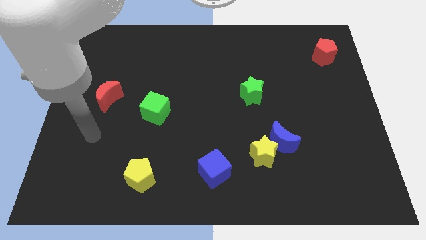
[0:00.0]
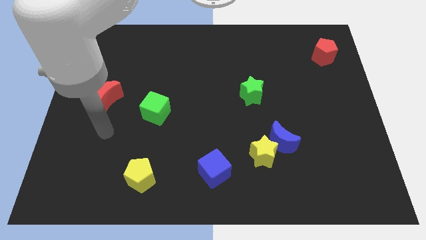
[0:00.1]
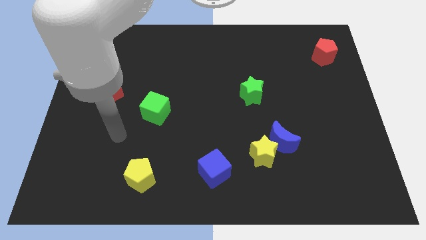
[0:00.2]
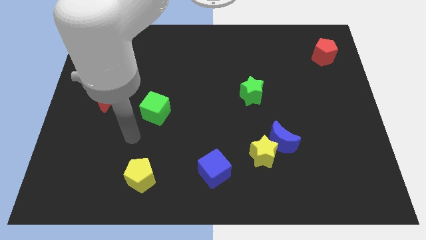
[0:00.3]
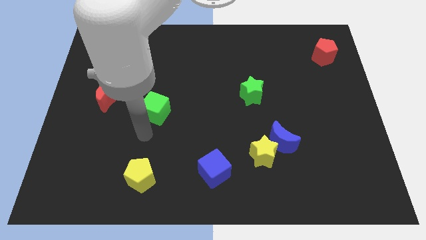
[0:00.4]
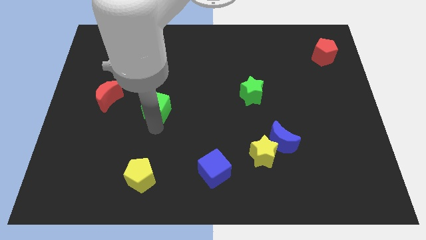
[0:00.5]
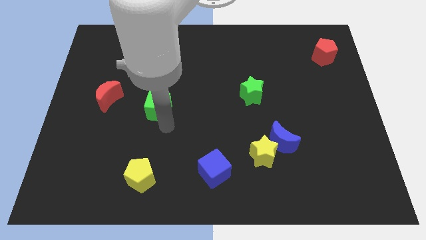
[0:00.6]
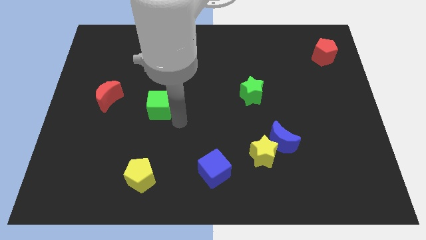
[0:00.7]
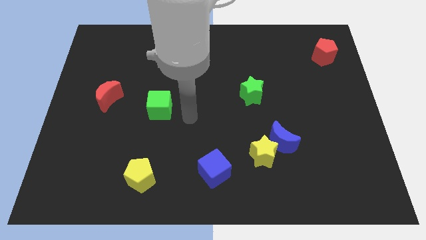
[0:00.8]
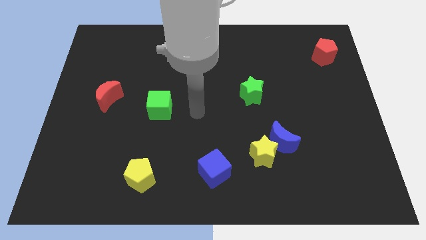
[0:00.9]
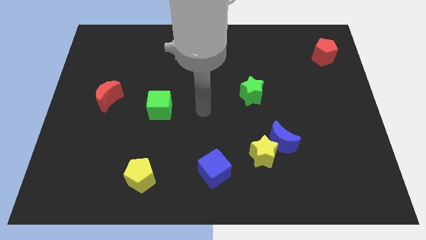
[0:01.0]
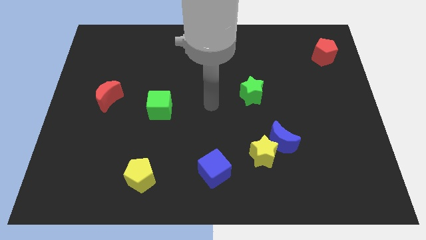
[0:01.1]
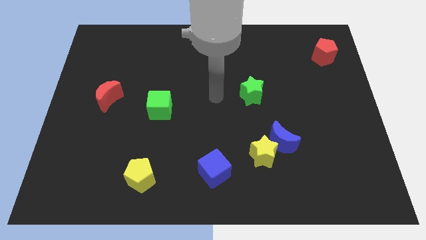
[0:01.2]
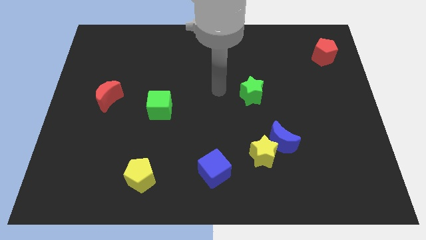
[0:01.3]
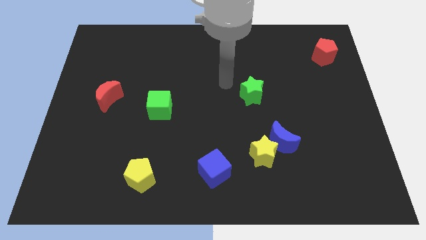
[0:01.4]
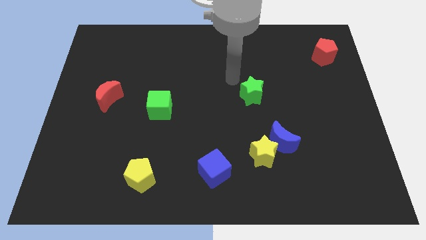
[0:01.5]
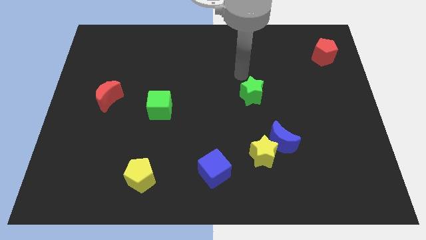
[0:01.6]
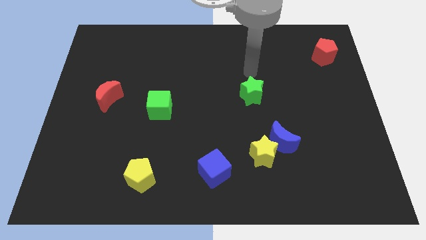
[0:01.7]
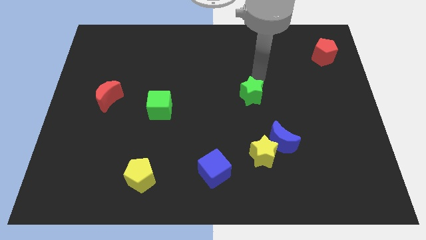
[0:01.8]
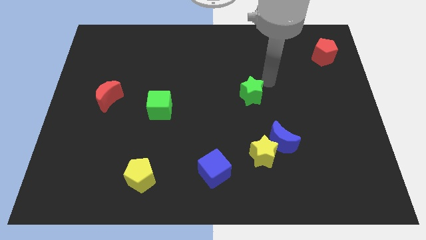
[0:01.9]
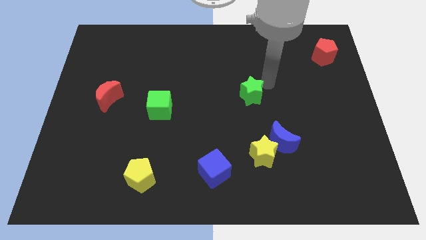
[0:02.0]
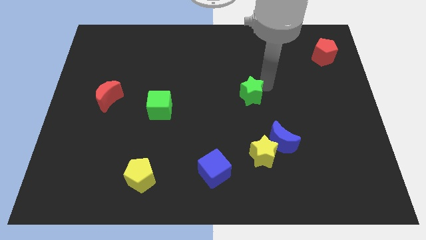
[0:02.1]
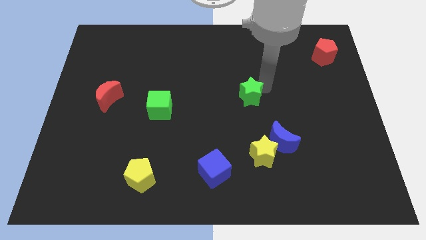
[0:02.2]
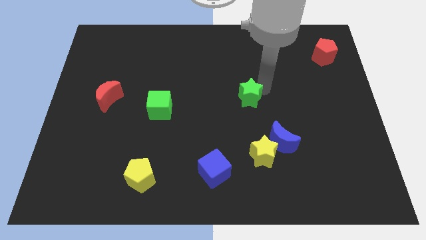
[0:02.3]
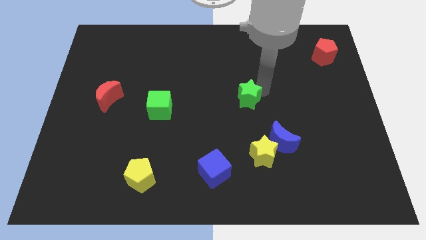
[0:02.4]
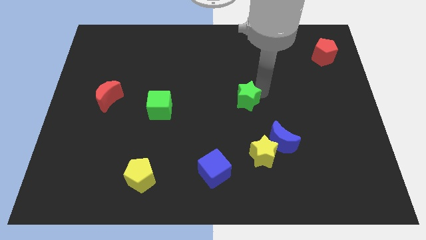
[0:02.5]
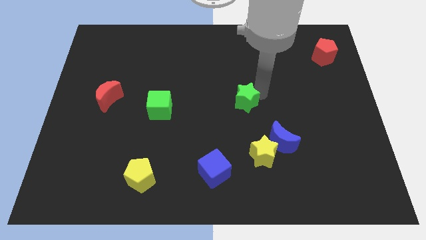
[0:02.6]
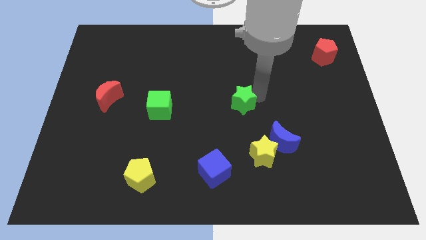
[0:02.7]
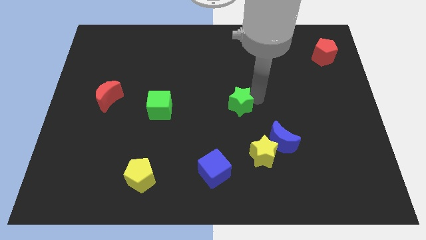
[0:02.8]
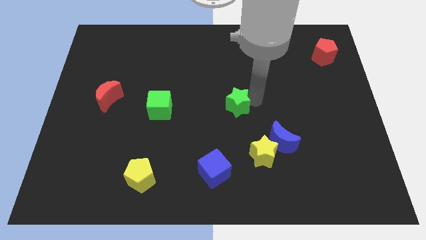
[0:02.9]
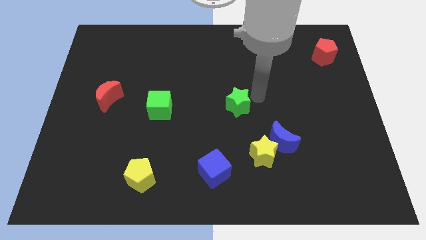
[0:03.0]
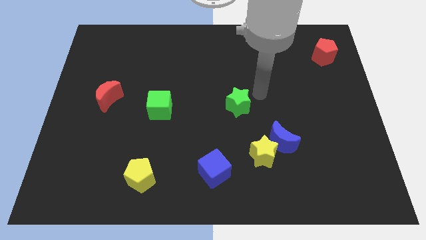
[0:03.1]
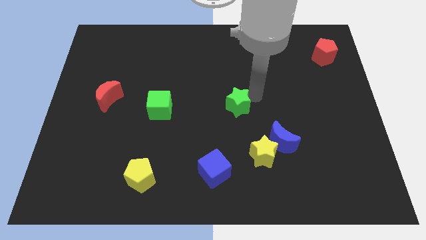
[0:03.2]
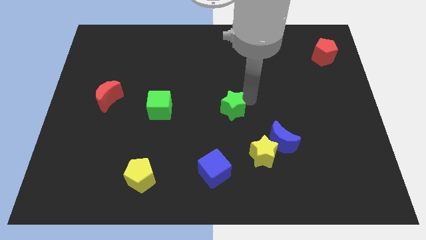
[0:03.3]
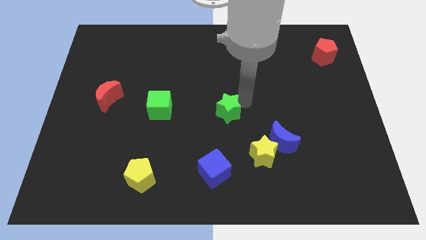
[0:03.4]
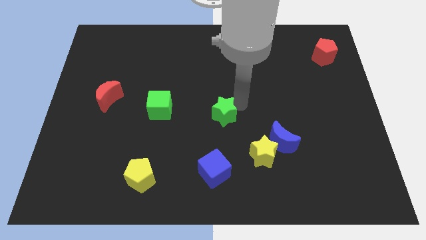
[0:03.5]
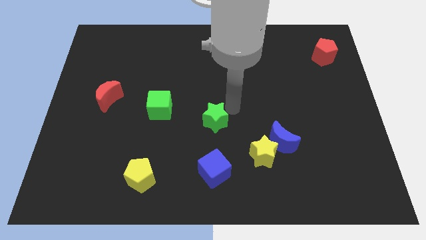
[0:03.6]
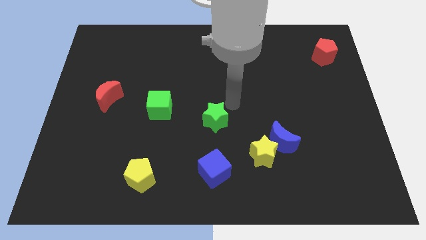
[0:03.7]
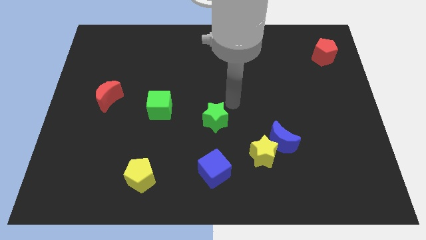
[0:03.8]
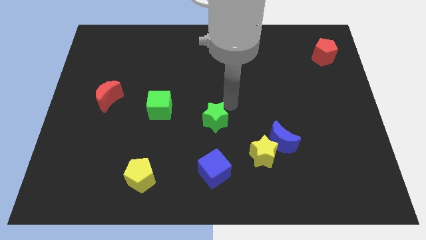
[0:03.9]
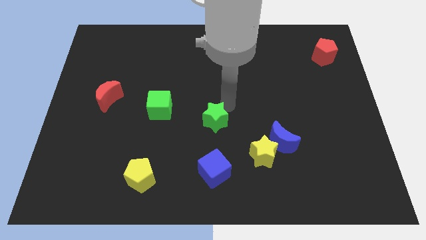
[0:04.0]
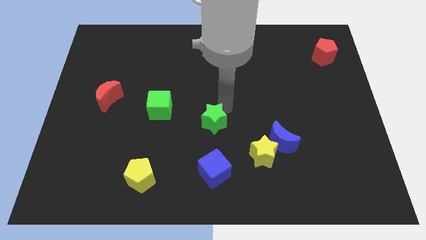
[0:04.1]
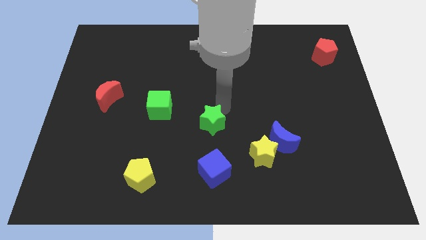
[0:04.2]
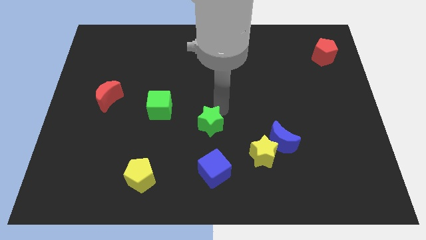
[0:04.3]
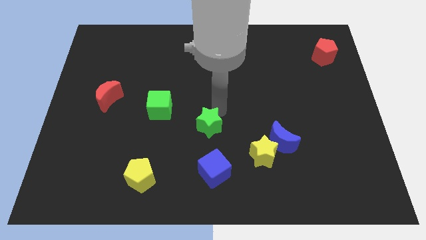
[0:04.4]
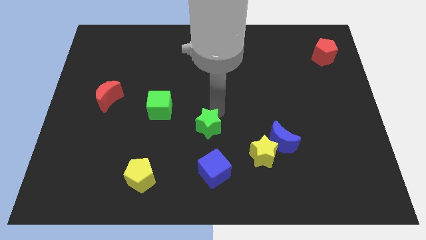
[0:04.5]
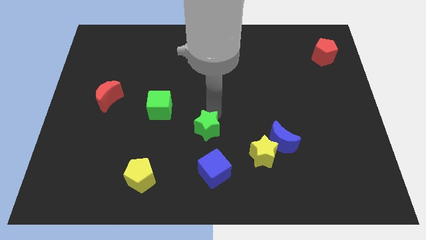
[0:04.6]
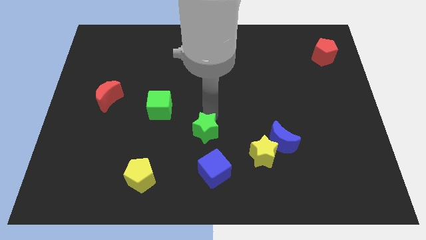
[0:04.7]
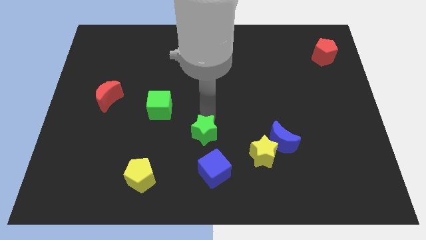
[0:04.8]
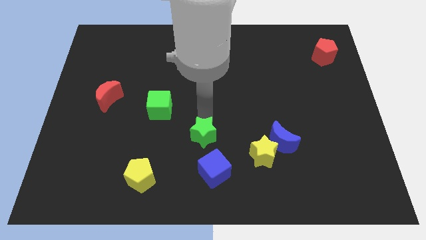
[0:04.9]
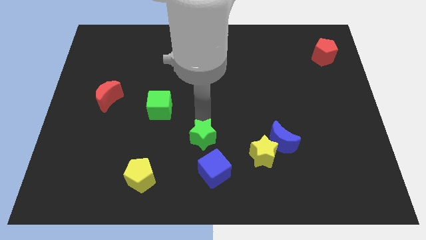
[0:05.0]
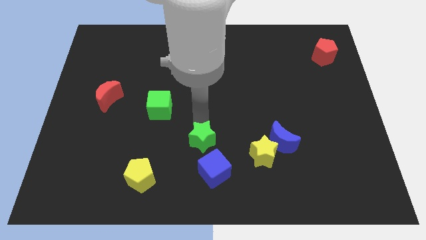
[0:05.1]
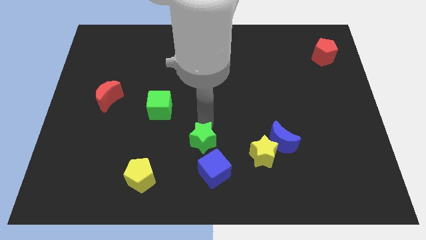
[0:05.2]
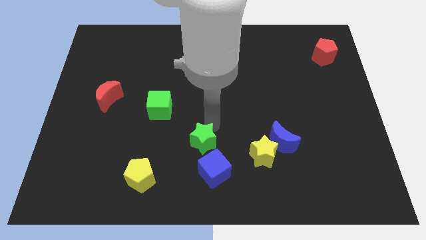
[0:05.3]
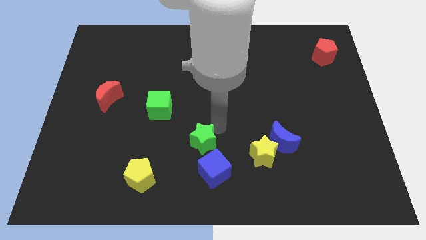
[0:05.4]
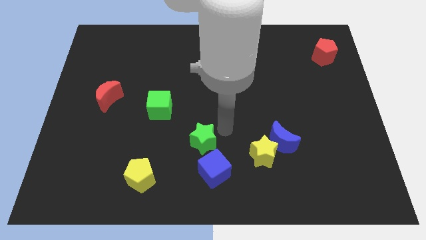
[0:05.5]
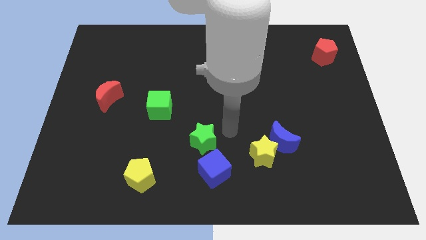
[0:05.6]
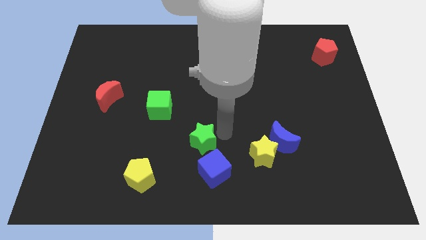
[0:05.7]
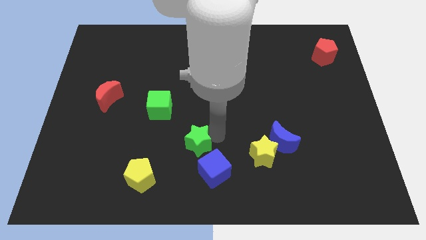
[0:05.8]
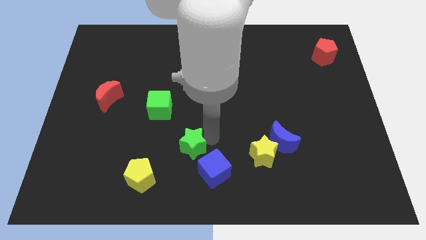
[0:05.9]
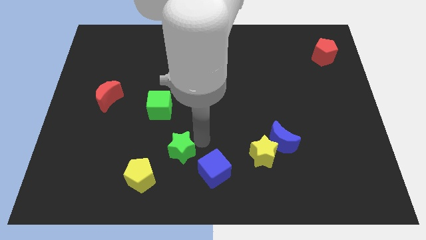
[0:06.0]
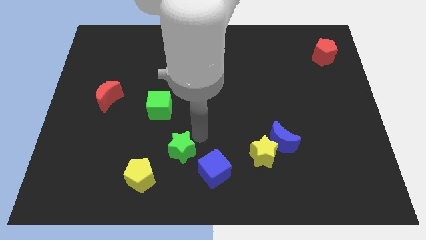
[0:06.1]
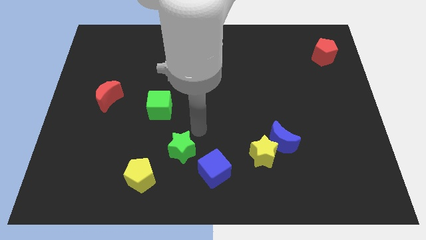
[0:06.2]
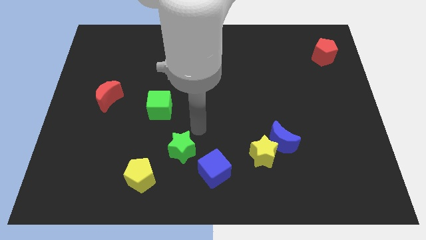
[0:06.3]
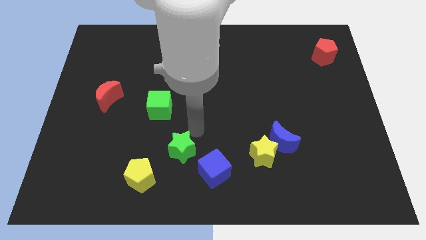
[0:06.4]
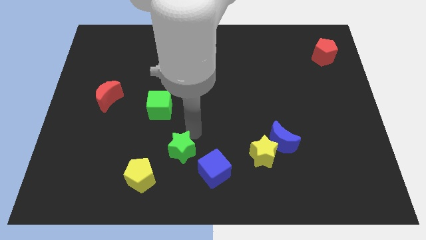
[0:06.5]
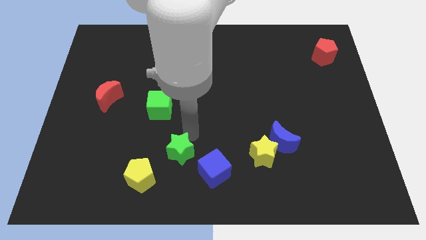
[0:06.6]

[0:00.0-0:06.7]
move the green star to the left of the blue cube

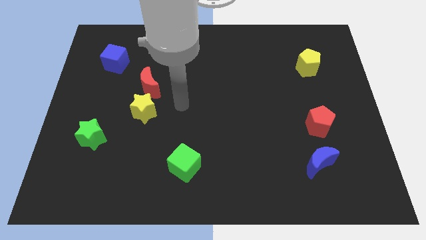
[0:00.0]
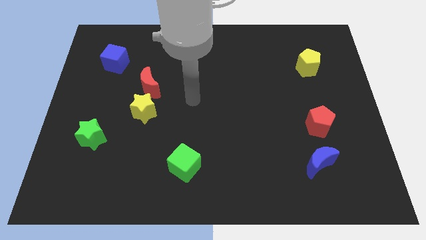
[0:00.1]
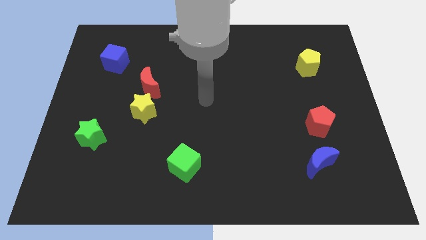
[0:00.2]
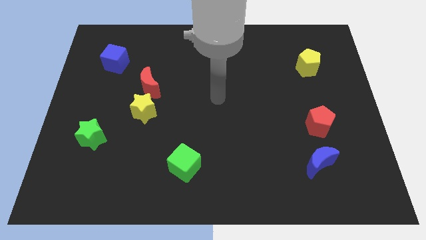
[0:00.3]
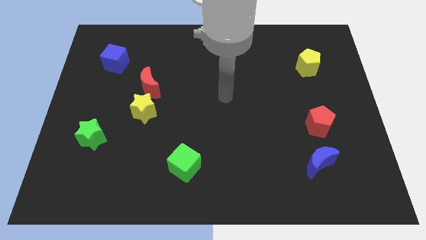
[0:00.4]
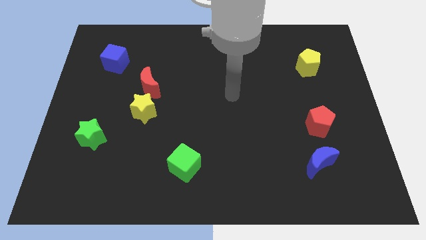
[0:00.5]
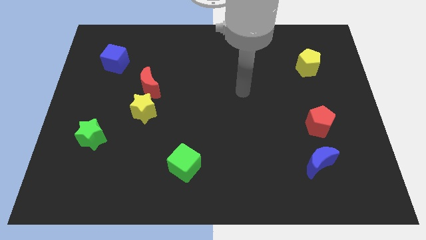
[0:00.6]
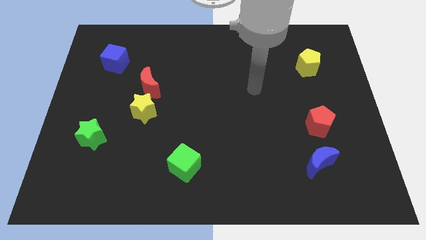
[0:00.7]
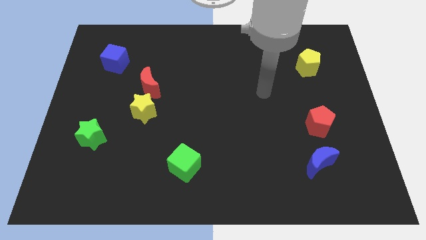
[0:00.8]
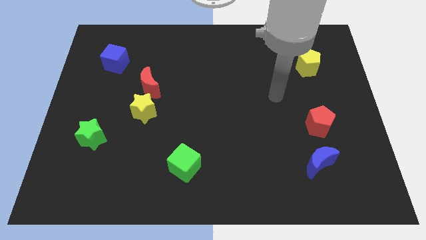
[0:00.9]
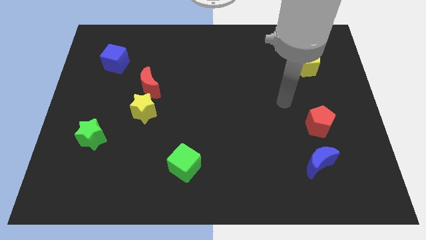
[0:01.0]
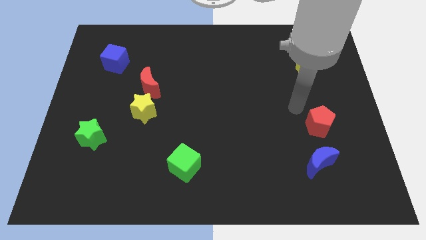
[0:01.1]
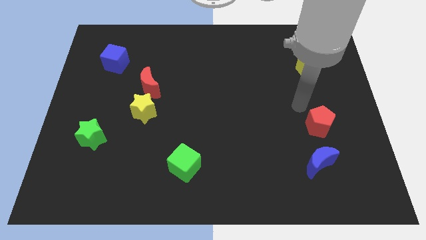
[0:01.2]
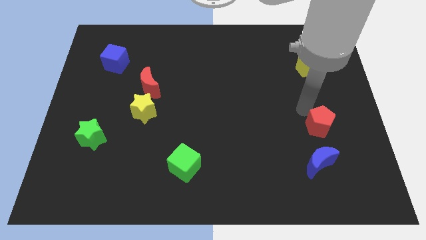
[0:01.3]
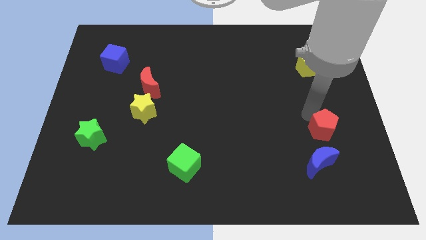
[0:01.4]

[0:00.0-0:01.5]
slide the red pentagon to the top right side of the blue moon
